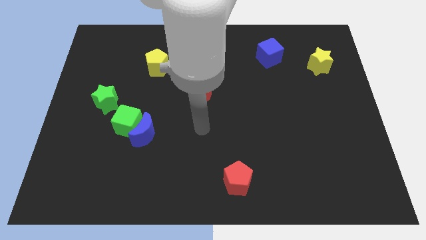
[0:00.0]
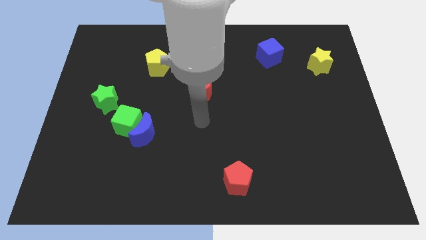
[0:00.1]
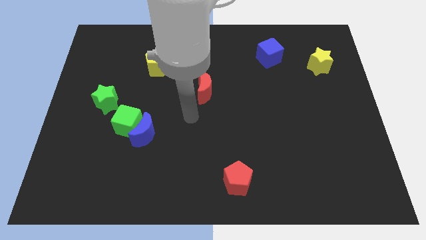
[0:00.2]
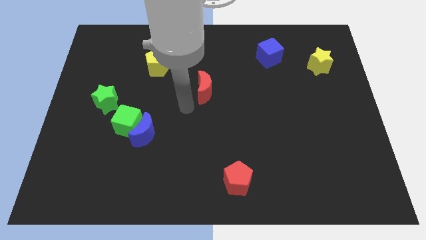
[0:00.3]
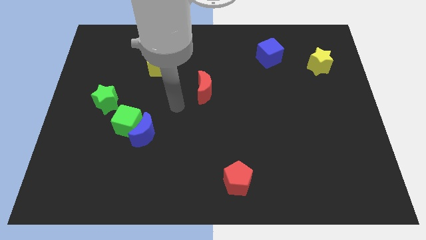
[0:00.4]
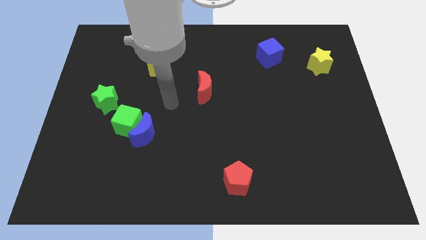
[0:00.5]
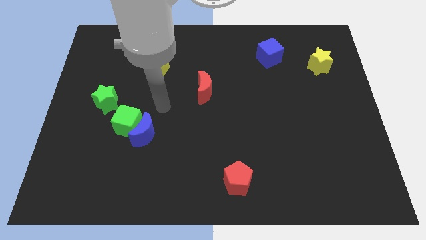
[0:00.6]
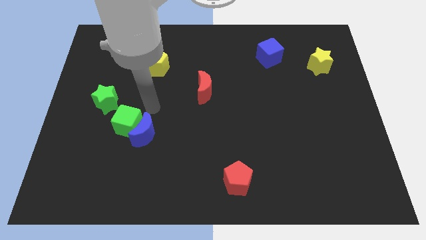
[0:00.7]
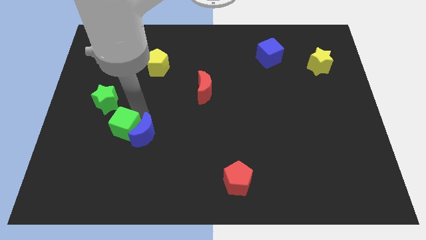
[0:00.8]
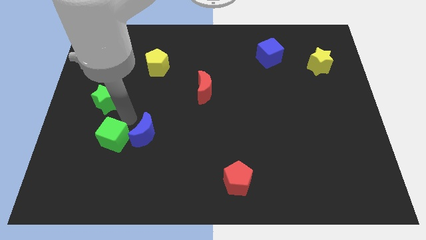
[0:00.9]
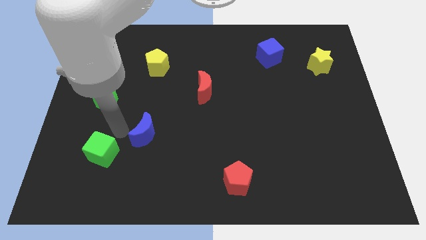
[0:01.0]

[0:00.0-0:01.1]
separate the blue moon from the green cube

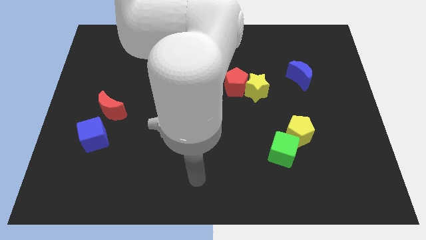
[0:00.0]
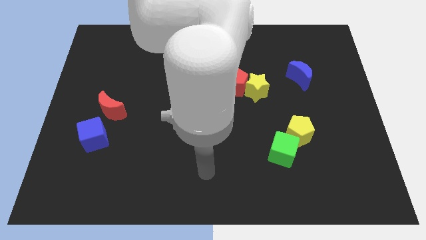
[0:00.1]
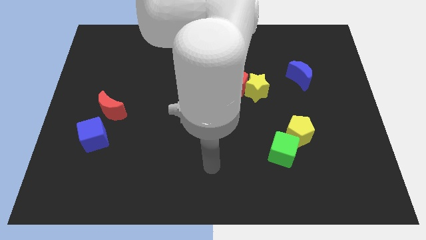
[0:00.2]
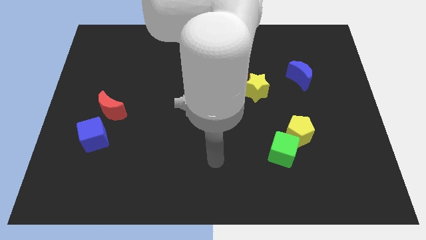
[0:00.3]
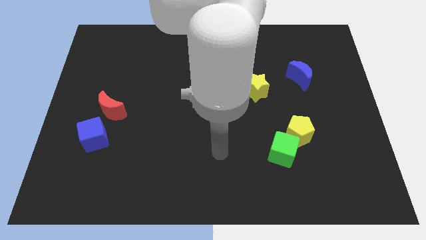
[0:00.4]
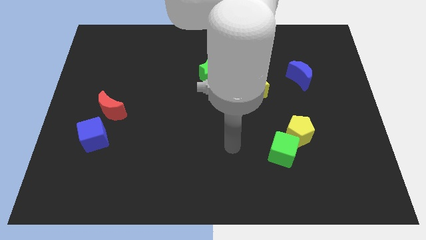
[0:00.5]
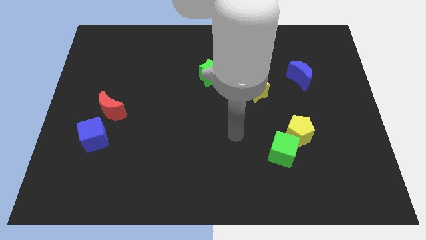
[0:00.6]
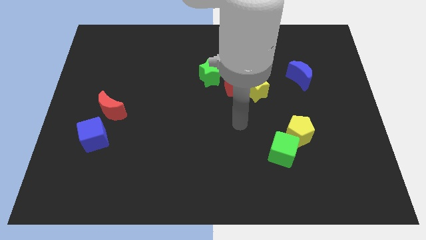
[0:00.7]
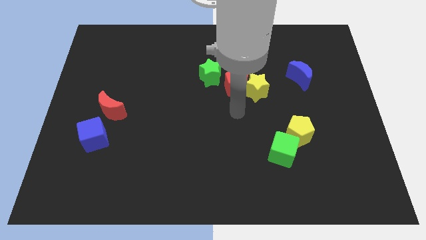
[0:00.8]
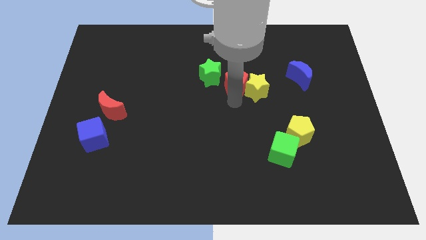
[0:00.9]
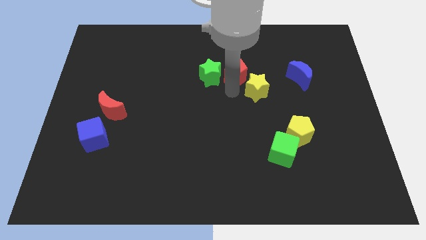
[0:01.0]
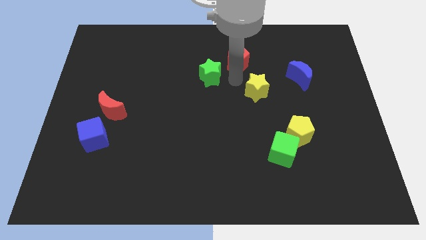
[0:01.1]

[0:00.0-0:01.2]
separate the yellow star from the red pentagon

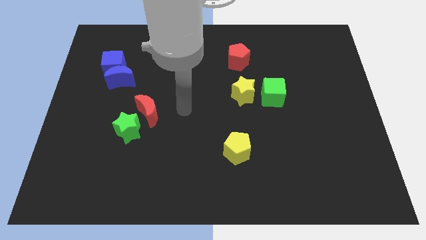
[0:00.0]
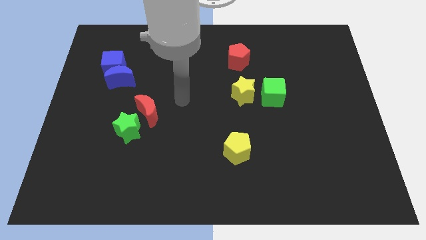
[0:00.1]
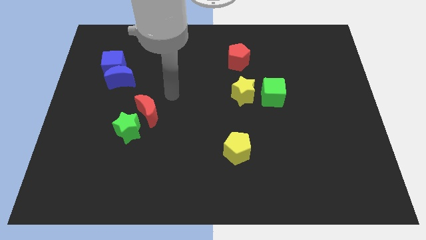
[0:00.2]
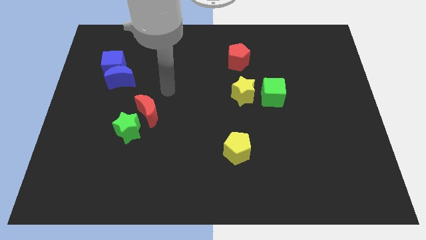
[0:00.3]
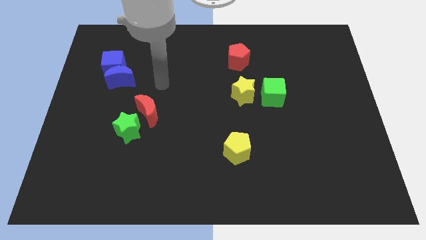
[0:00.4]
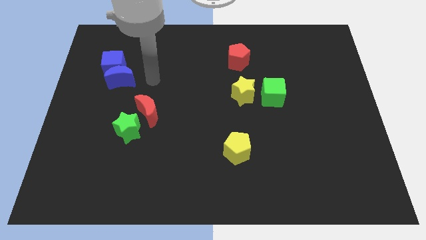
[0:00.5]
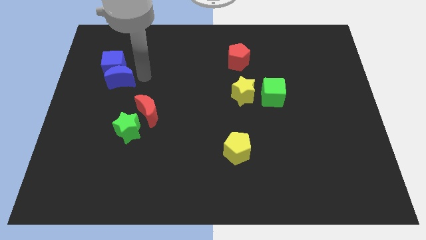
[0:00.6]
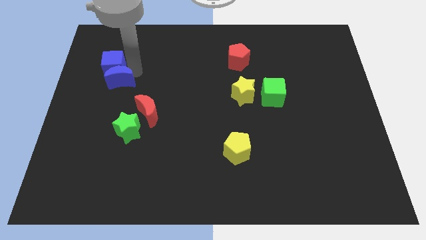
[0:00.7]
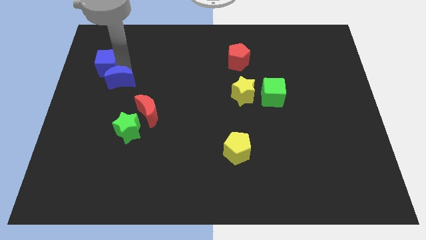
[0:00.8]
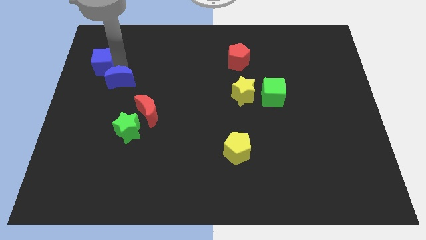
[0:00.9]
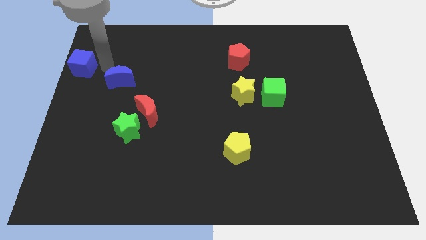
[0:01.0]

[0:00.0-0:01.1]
separate the blue moon from the blue cube

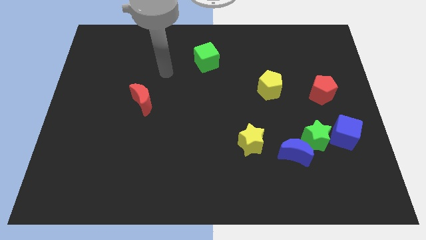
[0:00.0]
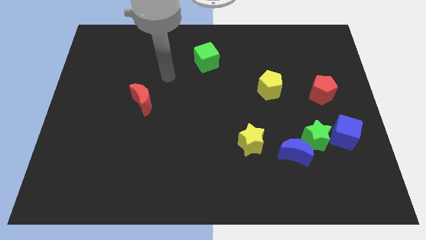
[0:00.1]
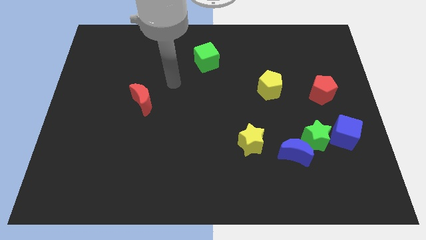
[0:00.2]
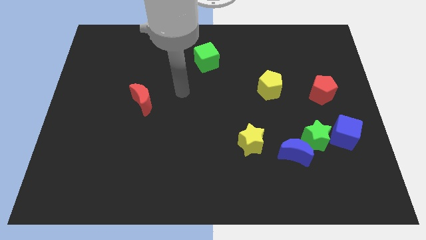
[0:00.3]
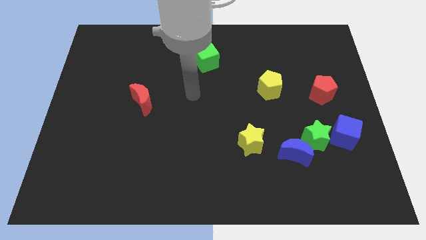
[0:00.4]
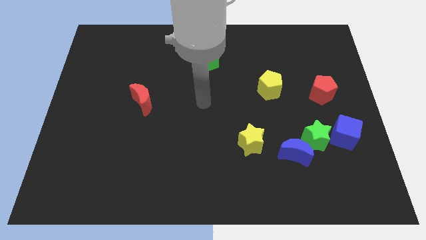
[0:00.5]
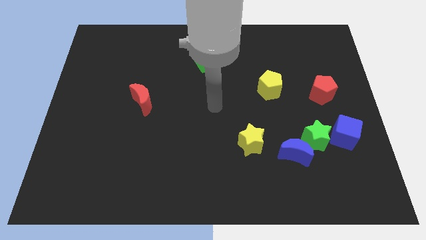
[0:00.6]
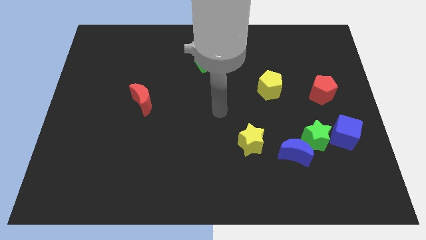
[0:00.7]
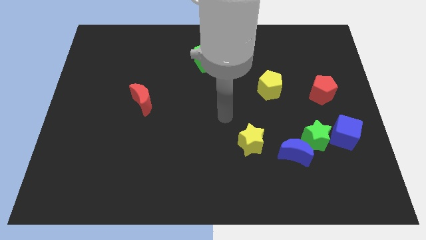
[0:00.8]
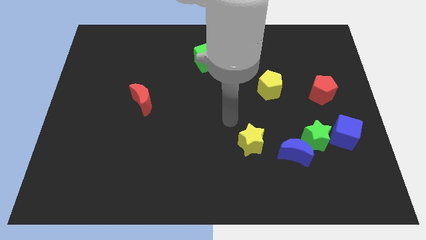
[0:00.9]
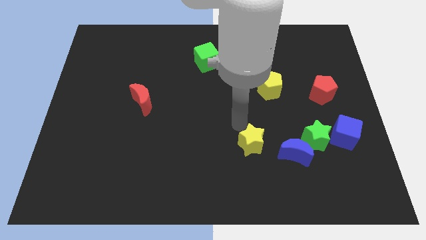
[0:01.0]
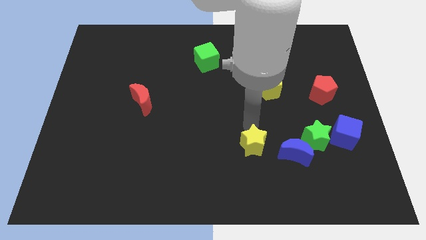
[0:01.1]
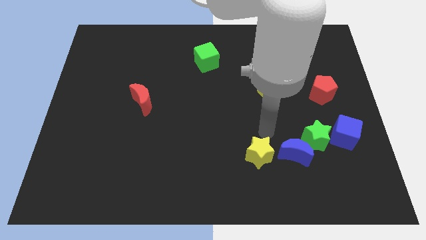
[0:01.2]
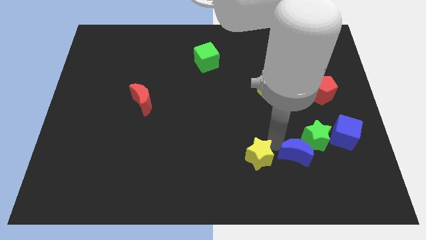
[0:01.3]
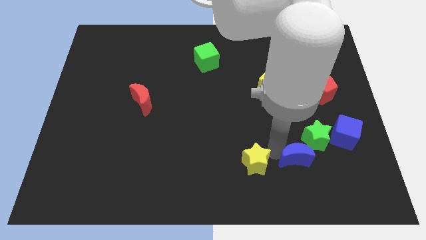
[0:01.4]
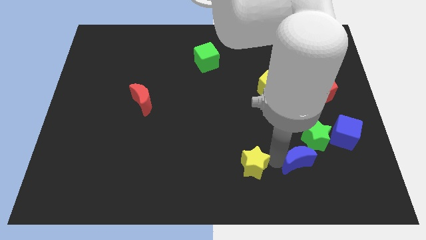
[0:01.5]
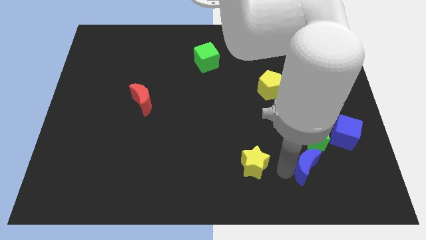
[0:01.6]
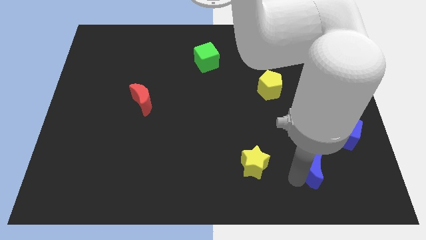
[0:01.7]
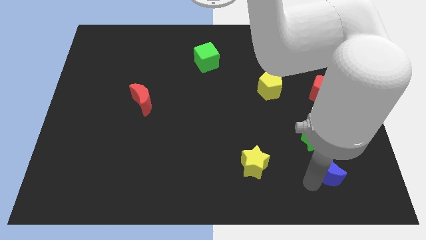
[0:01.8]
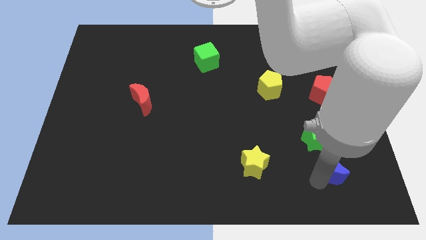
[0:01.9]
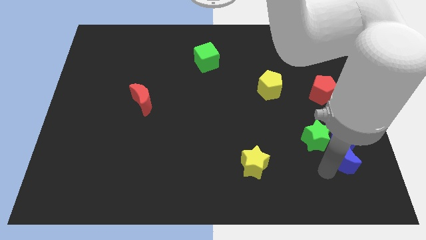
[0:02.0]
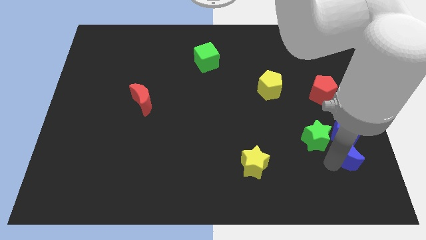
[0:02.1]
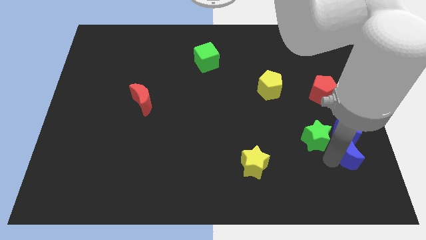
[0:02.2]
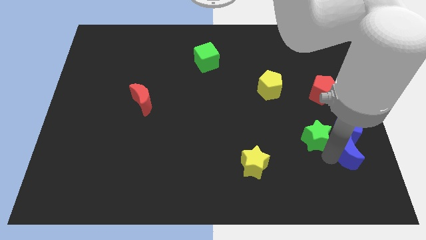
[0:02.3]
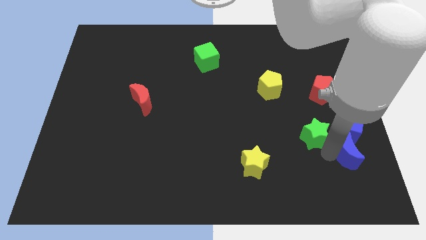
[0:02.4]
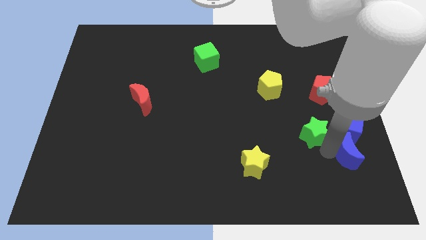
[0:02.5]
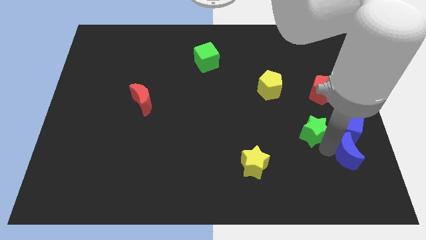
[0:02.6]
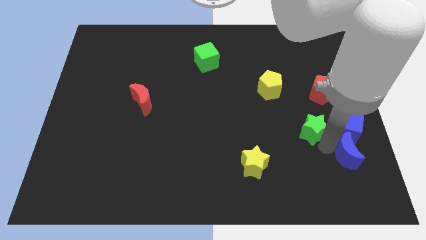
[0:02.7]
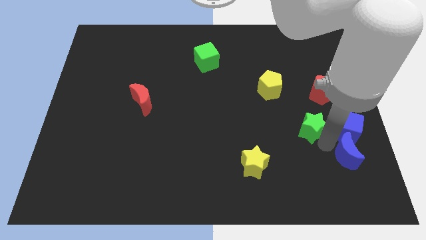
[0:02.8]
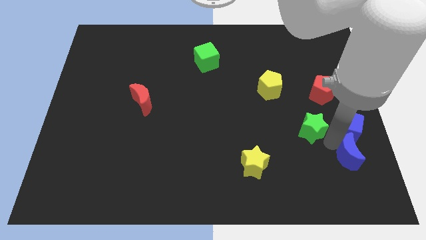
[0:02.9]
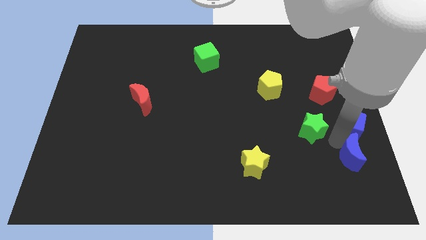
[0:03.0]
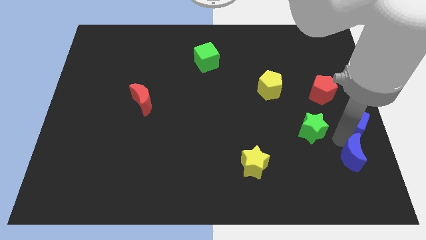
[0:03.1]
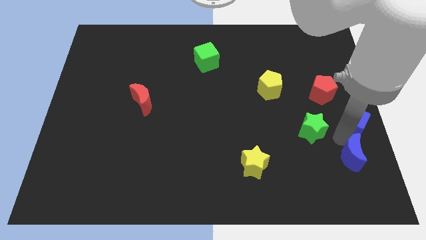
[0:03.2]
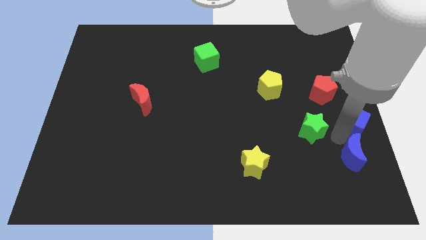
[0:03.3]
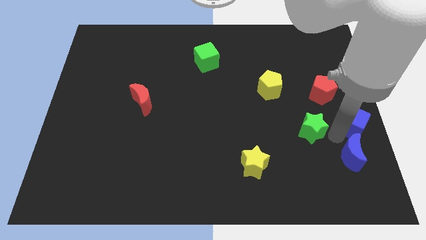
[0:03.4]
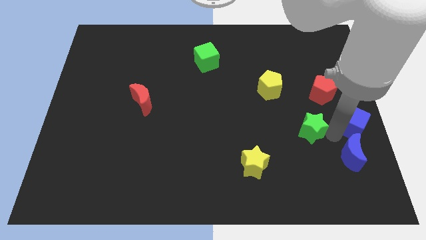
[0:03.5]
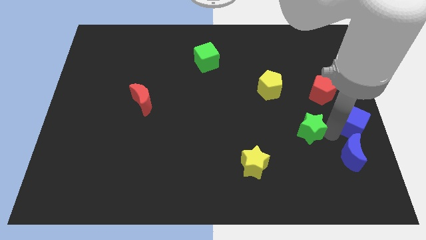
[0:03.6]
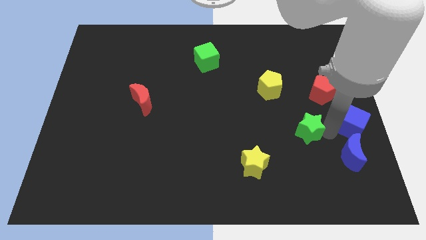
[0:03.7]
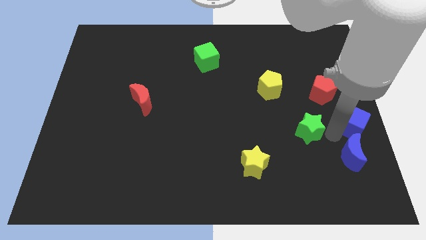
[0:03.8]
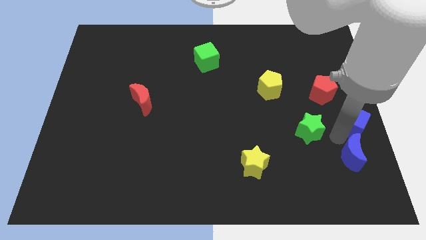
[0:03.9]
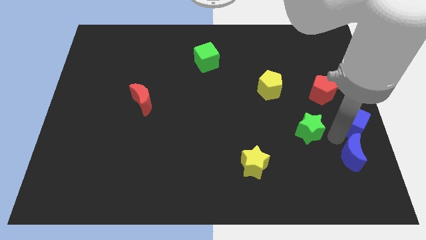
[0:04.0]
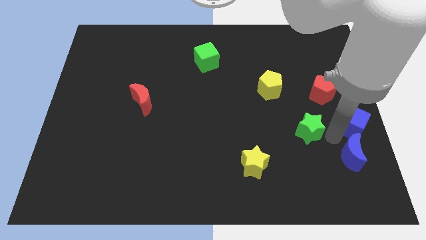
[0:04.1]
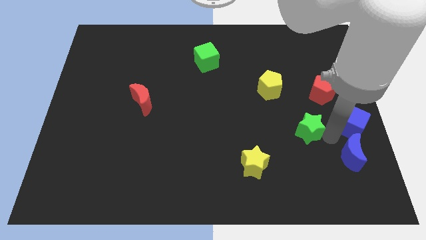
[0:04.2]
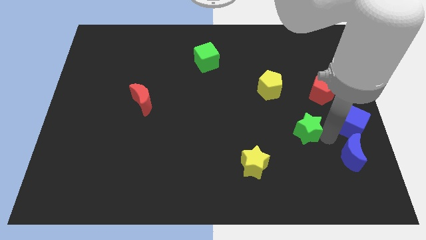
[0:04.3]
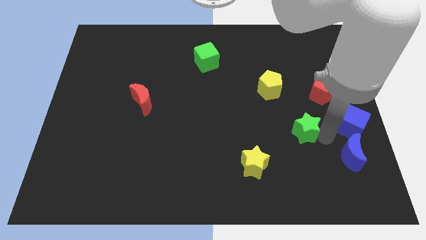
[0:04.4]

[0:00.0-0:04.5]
move the green star away from the blue moon and blue cube

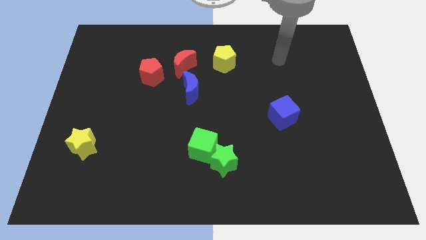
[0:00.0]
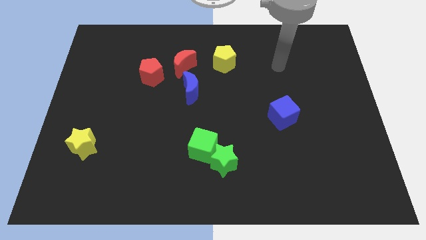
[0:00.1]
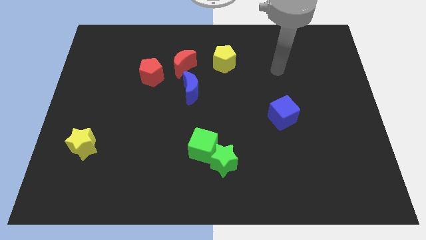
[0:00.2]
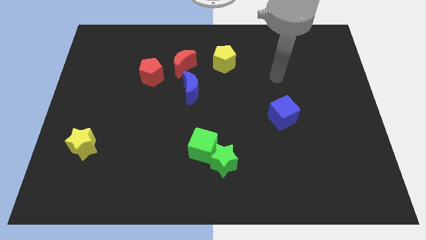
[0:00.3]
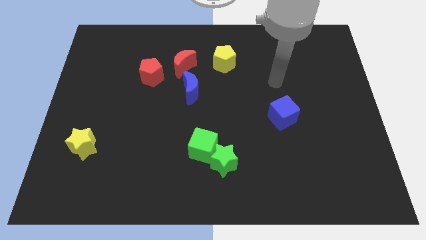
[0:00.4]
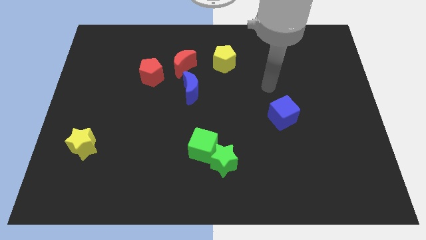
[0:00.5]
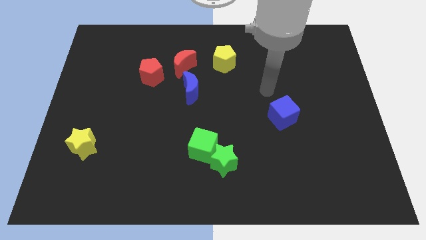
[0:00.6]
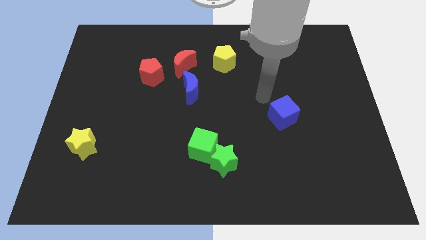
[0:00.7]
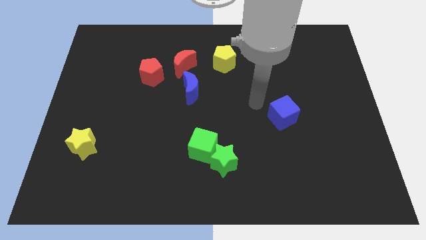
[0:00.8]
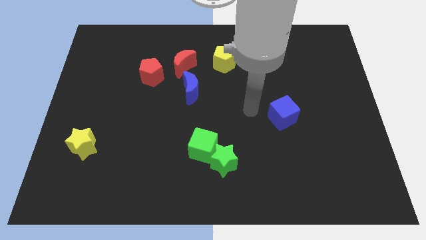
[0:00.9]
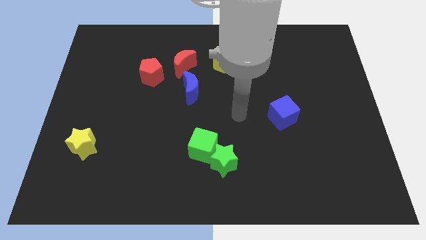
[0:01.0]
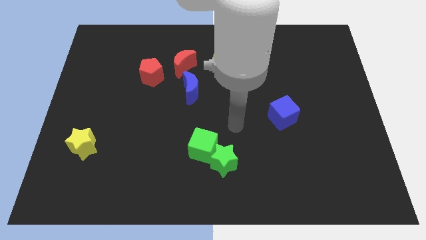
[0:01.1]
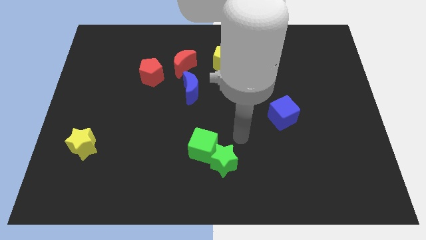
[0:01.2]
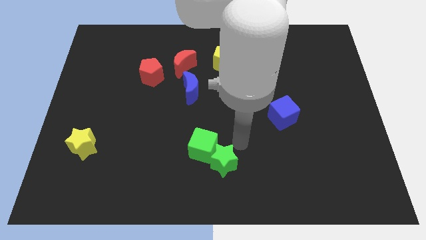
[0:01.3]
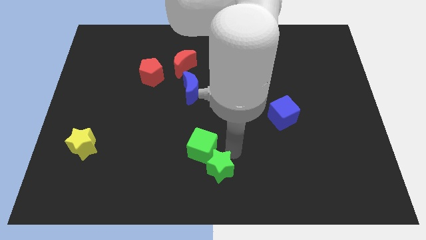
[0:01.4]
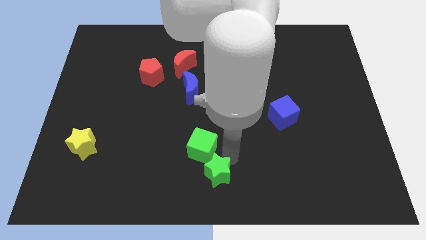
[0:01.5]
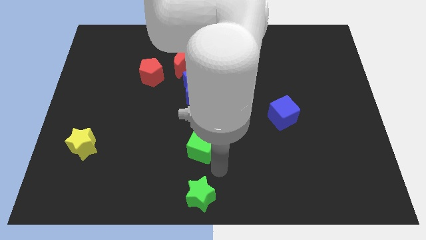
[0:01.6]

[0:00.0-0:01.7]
pull the green cube apart from the green star
